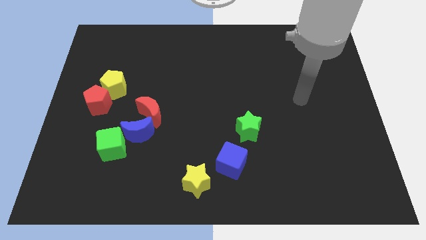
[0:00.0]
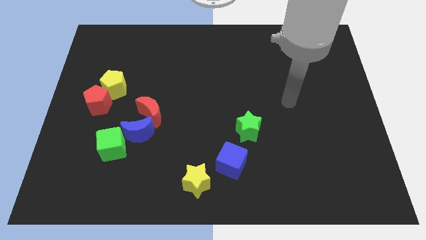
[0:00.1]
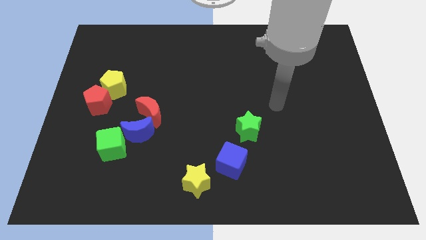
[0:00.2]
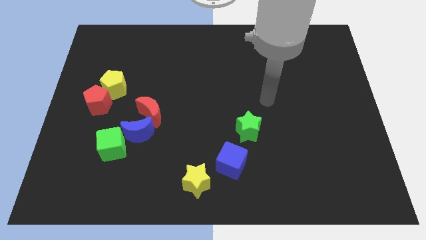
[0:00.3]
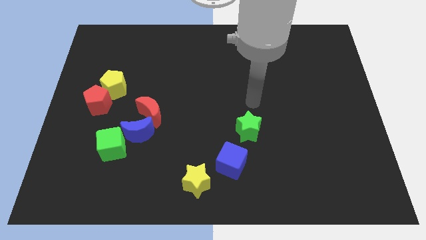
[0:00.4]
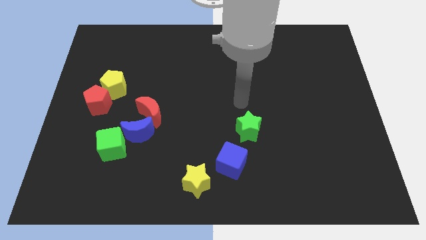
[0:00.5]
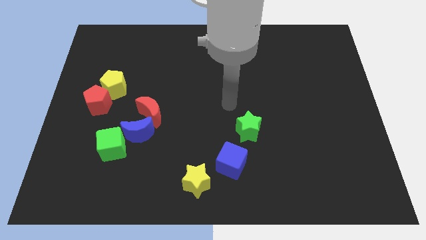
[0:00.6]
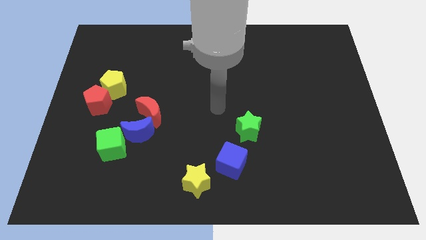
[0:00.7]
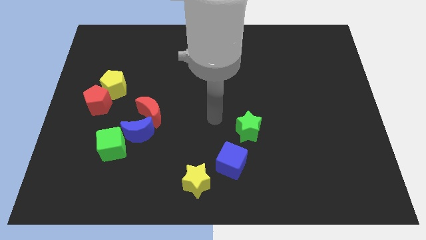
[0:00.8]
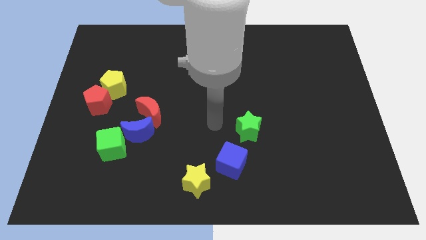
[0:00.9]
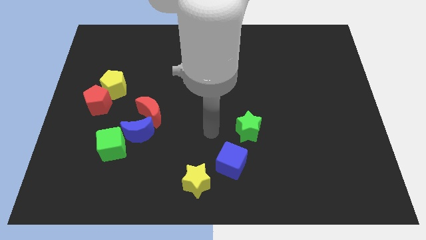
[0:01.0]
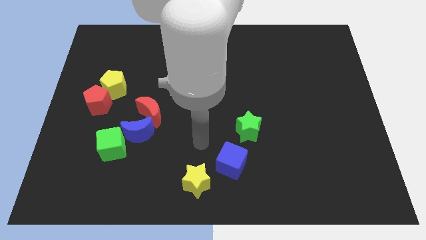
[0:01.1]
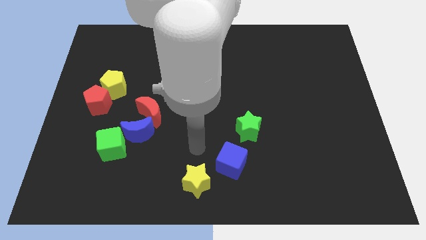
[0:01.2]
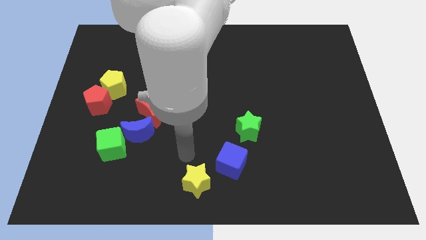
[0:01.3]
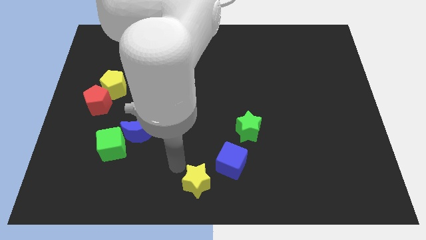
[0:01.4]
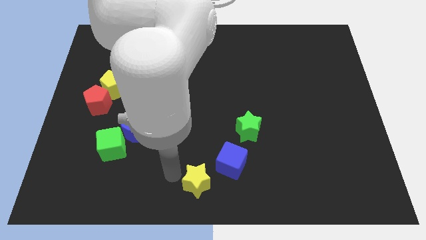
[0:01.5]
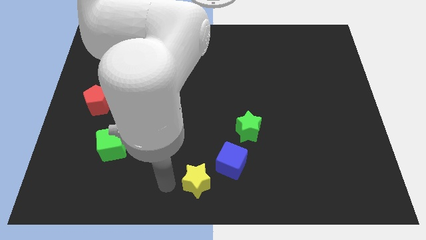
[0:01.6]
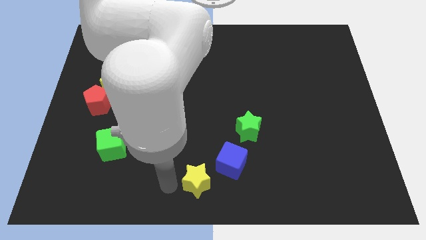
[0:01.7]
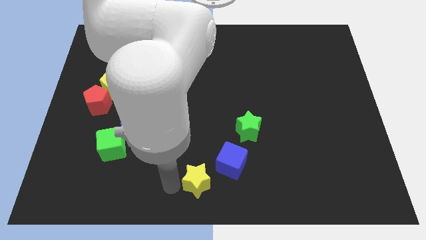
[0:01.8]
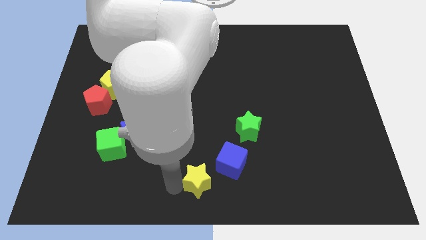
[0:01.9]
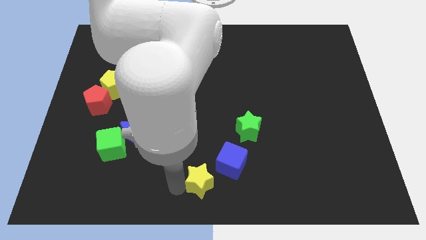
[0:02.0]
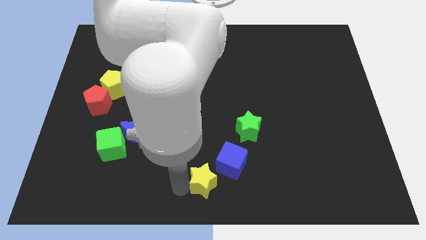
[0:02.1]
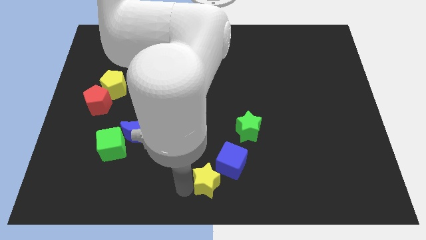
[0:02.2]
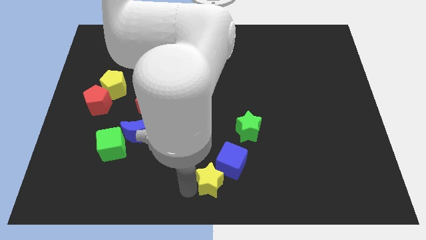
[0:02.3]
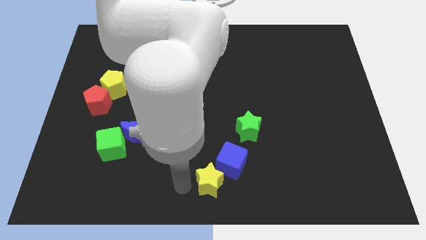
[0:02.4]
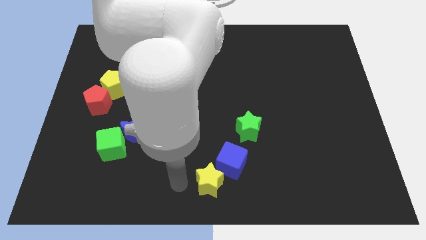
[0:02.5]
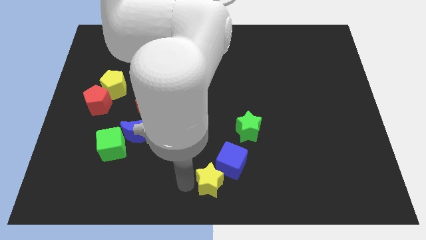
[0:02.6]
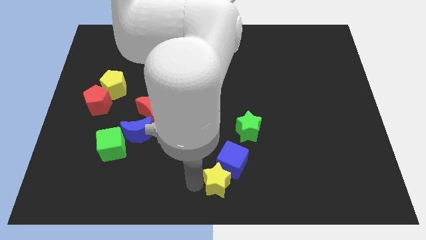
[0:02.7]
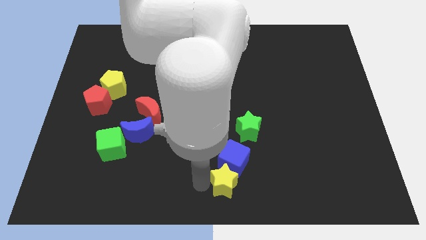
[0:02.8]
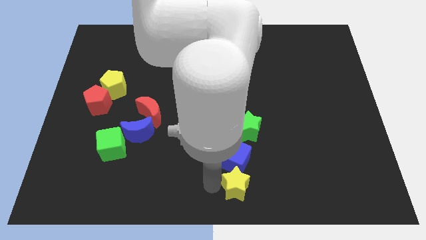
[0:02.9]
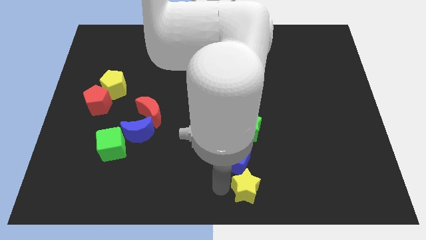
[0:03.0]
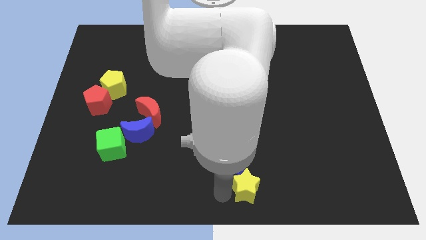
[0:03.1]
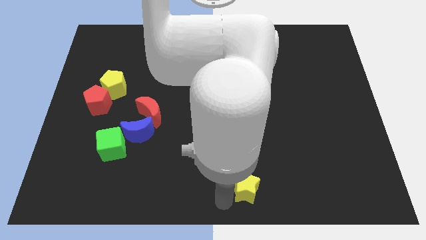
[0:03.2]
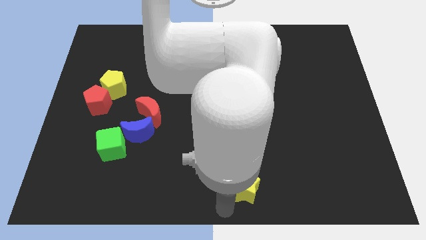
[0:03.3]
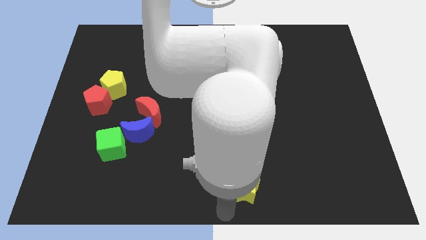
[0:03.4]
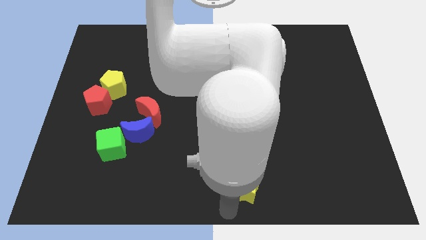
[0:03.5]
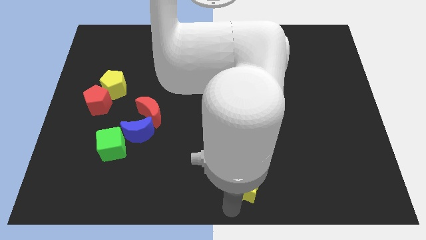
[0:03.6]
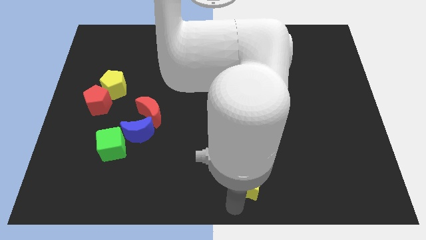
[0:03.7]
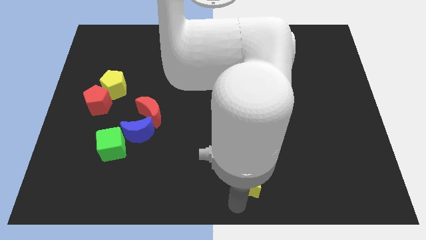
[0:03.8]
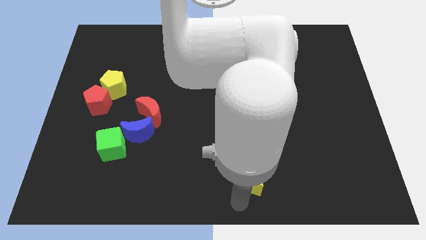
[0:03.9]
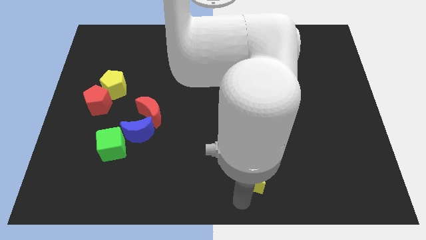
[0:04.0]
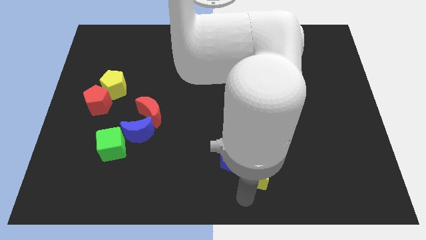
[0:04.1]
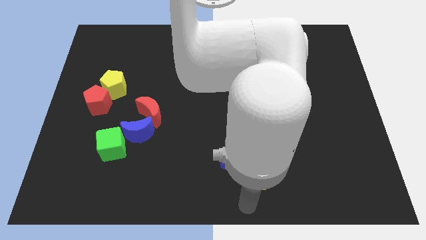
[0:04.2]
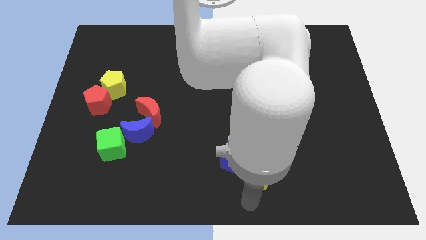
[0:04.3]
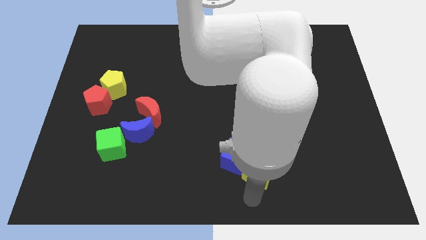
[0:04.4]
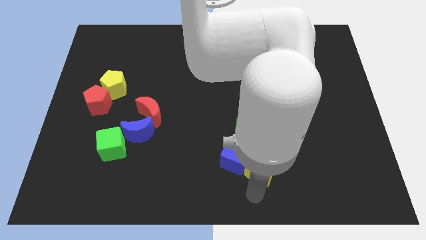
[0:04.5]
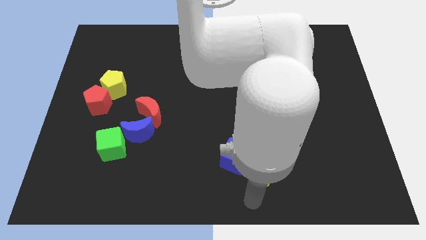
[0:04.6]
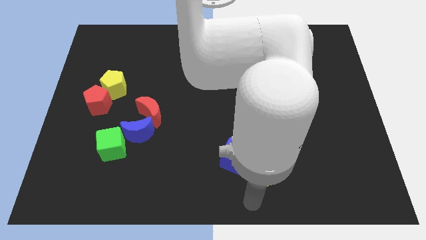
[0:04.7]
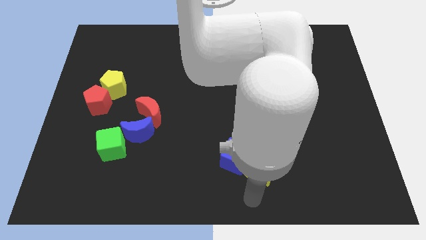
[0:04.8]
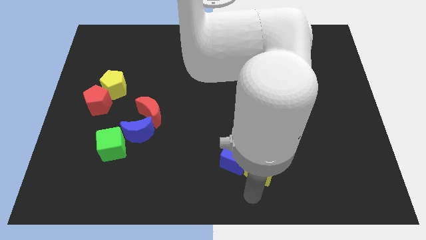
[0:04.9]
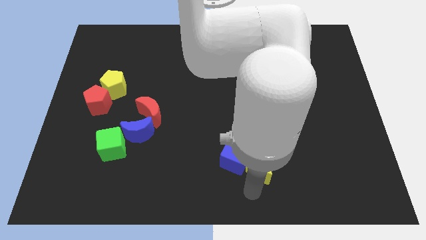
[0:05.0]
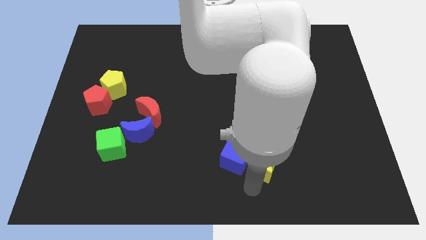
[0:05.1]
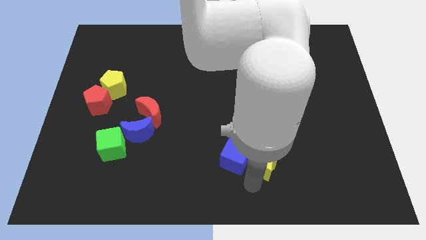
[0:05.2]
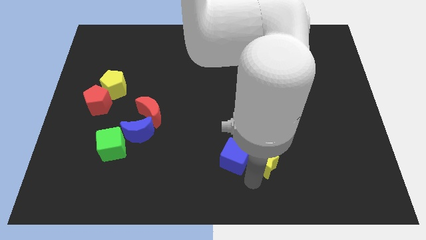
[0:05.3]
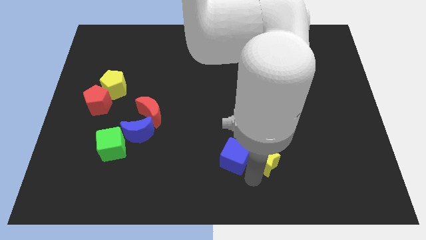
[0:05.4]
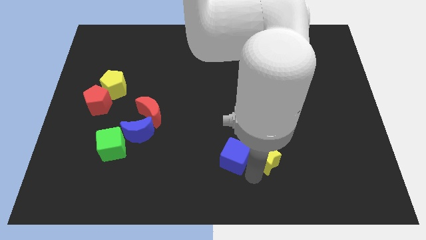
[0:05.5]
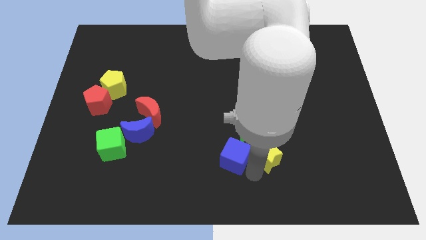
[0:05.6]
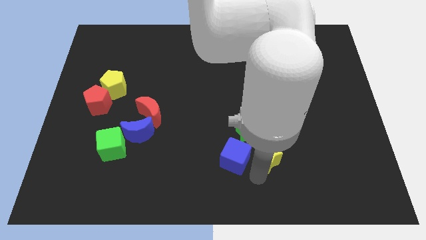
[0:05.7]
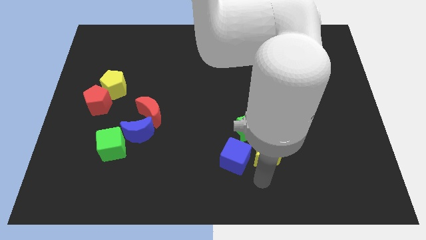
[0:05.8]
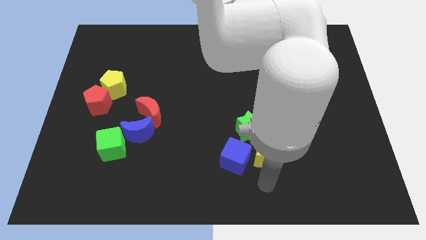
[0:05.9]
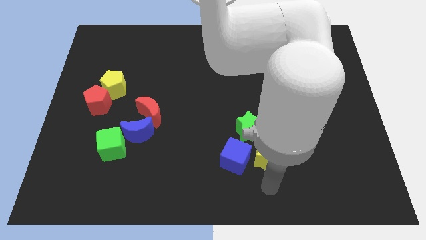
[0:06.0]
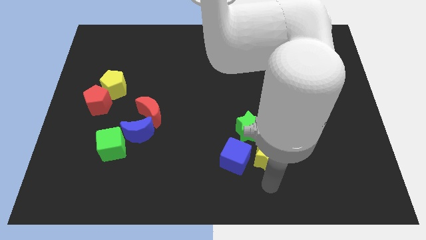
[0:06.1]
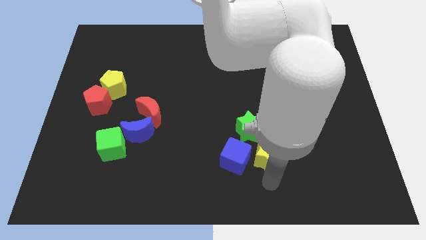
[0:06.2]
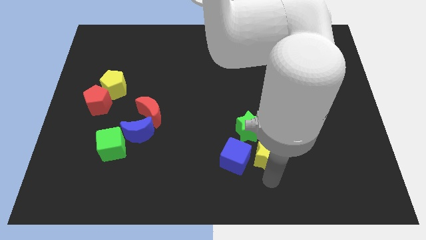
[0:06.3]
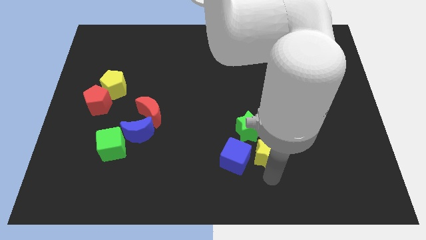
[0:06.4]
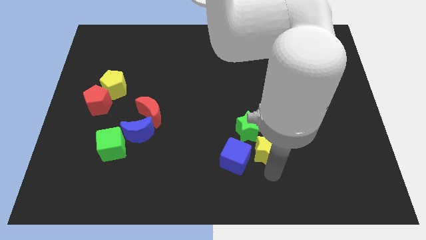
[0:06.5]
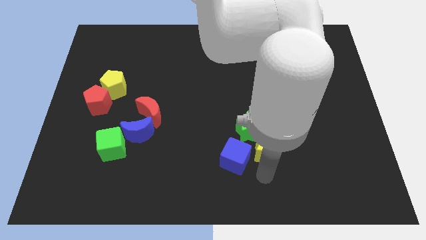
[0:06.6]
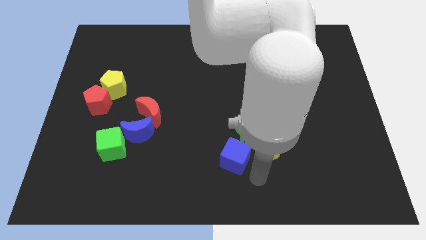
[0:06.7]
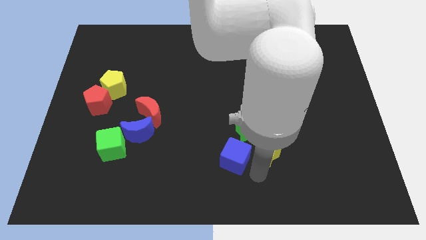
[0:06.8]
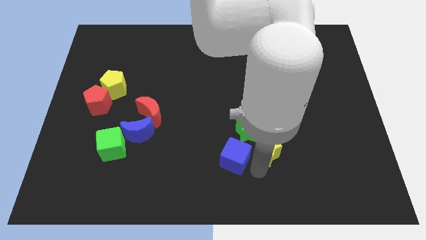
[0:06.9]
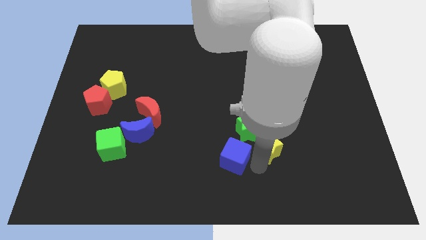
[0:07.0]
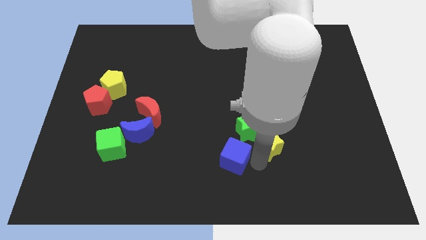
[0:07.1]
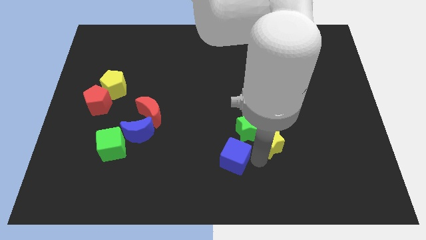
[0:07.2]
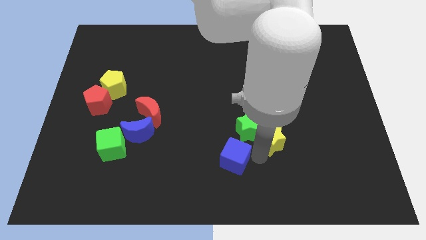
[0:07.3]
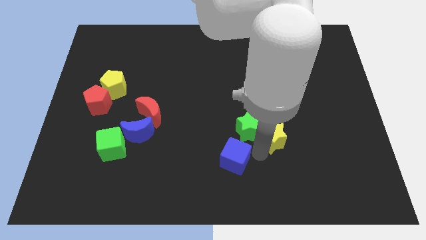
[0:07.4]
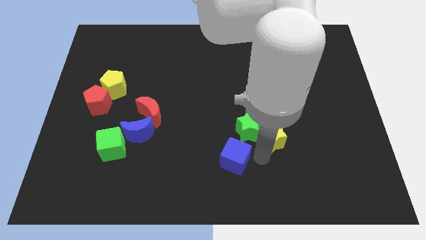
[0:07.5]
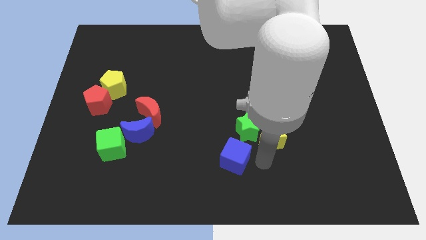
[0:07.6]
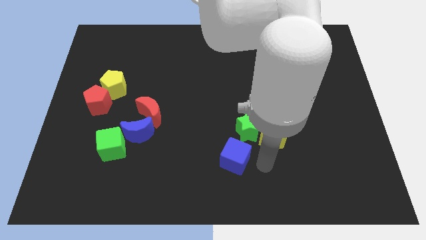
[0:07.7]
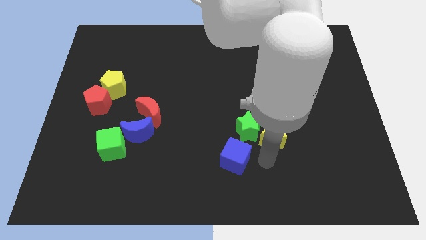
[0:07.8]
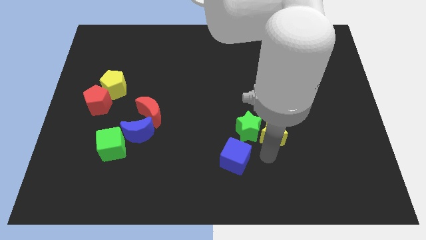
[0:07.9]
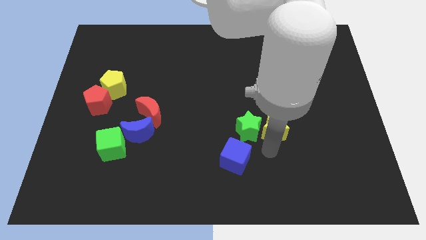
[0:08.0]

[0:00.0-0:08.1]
move the yellow star diagonally upwards and right
